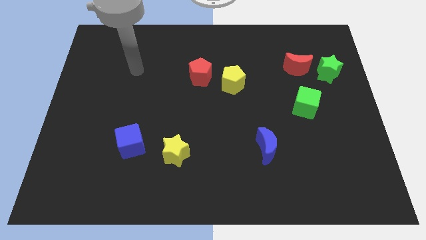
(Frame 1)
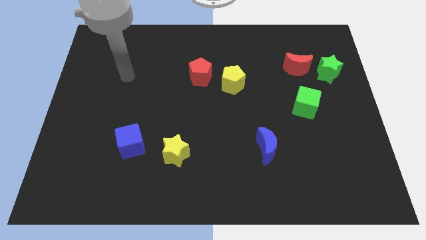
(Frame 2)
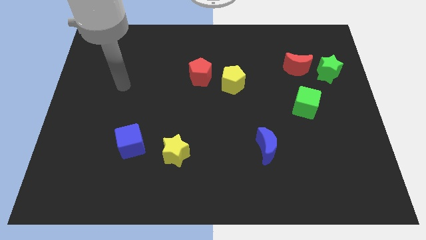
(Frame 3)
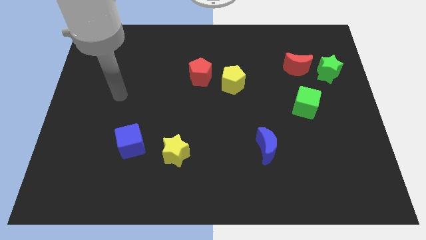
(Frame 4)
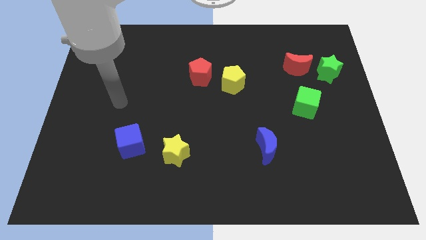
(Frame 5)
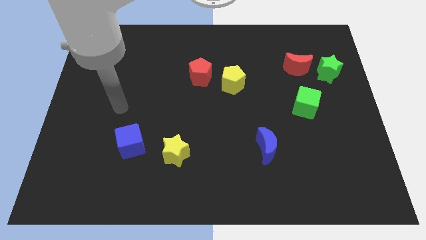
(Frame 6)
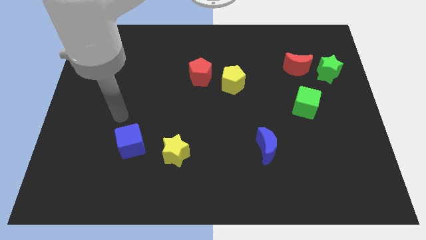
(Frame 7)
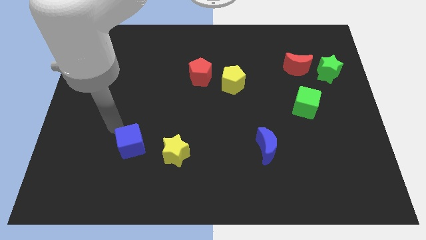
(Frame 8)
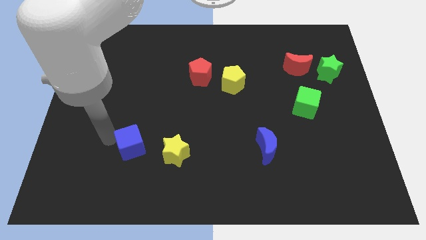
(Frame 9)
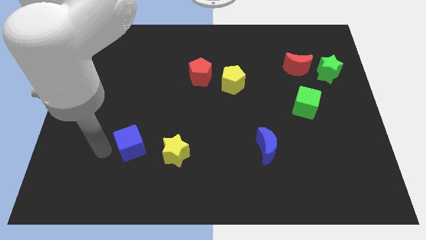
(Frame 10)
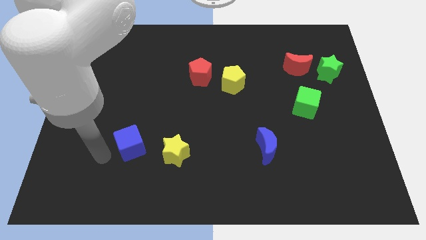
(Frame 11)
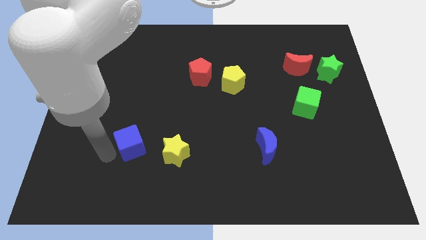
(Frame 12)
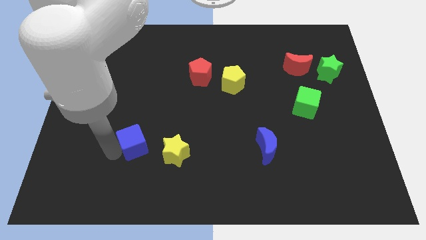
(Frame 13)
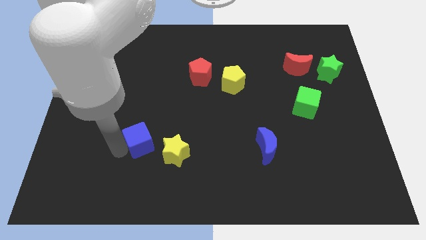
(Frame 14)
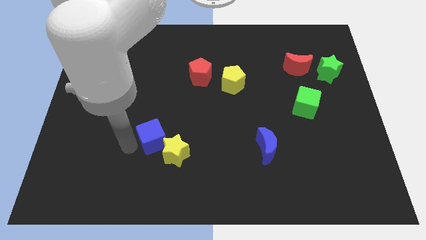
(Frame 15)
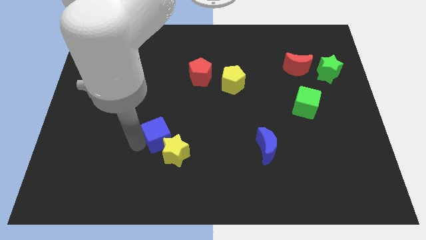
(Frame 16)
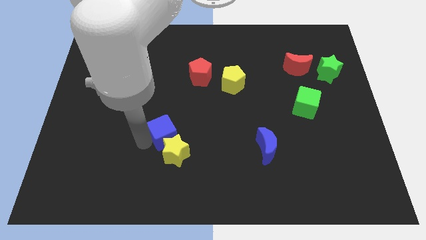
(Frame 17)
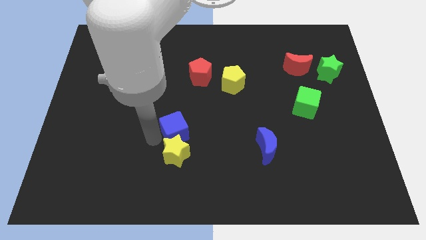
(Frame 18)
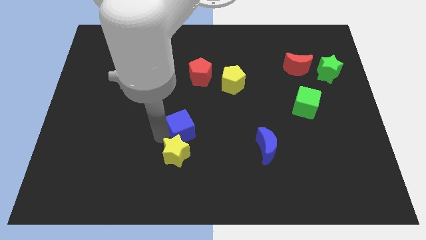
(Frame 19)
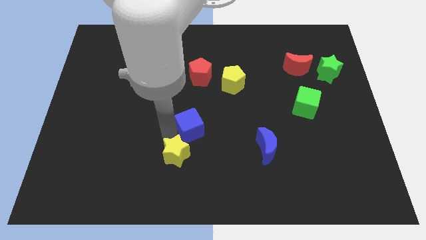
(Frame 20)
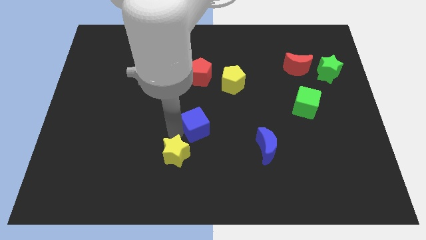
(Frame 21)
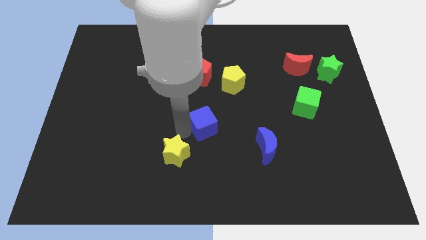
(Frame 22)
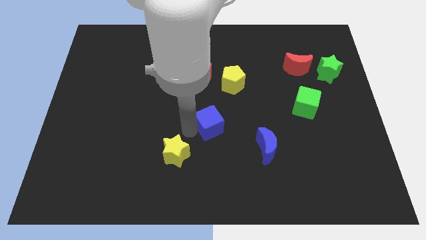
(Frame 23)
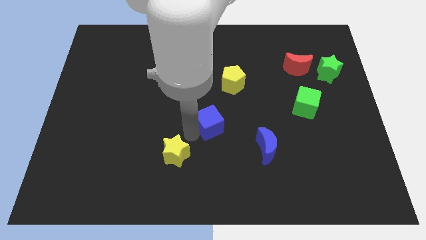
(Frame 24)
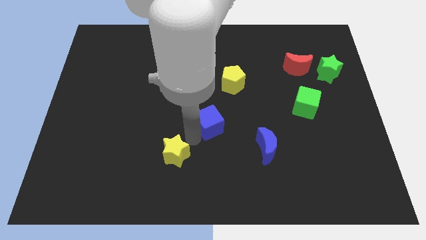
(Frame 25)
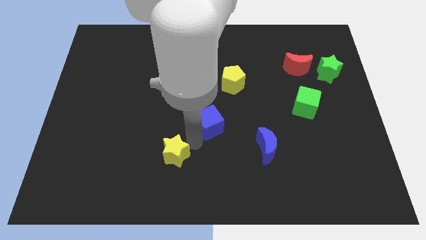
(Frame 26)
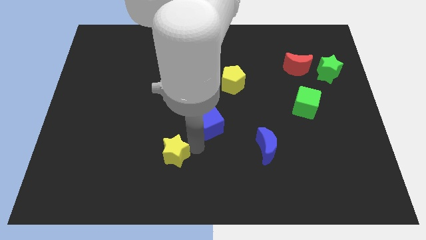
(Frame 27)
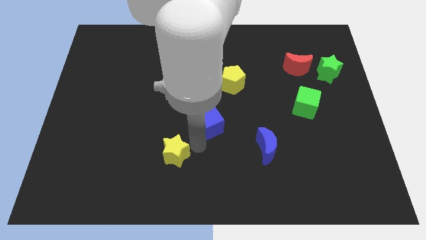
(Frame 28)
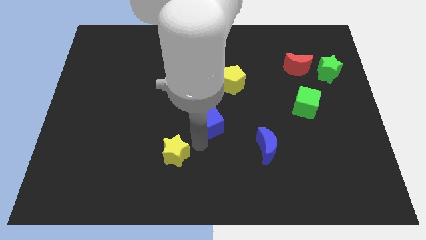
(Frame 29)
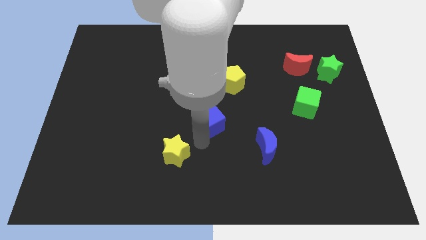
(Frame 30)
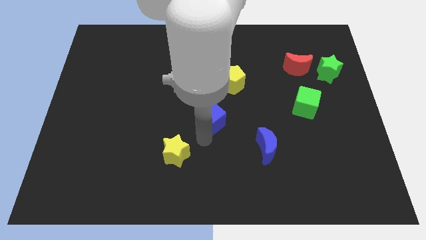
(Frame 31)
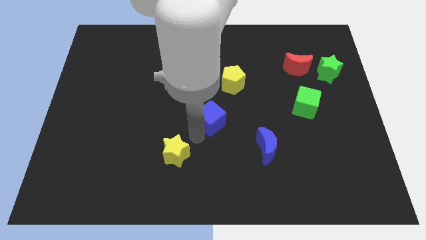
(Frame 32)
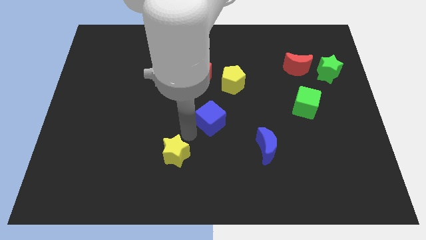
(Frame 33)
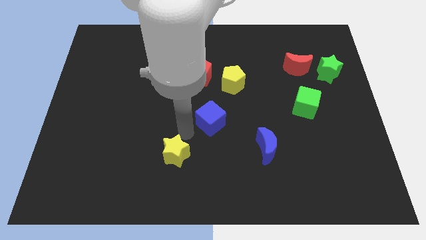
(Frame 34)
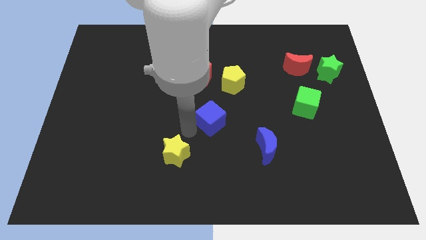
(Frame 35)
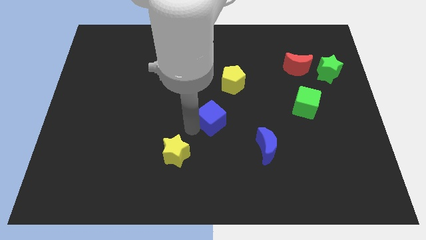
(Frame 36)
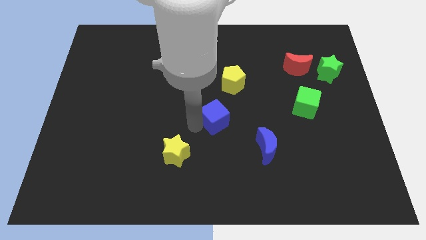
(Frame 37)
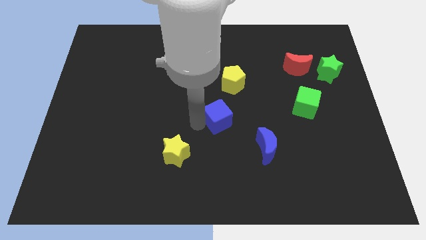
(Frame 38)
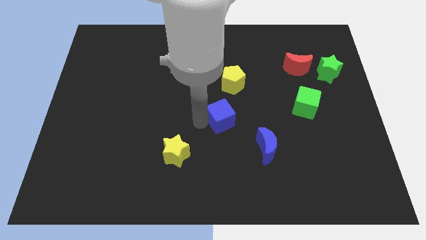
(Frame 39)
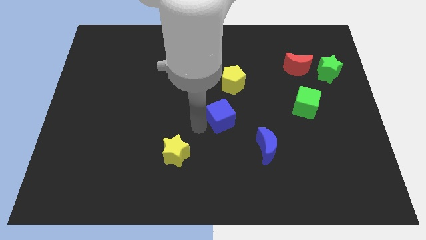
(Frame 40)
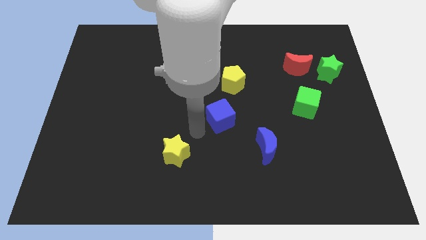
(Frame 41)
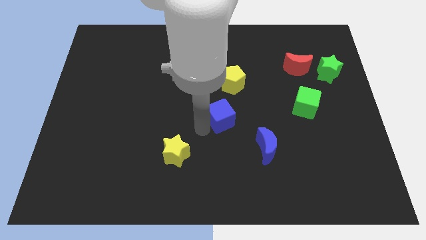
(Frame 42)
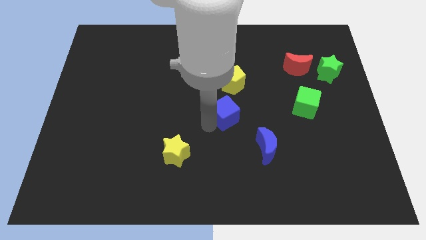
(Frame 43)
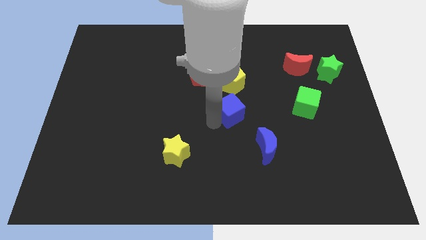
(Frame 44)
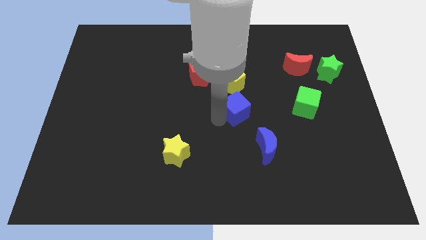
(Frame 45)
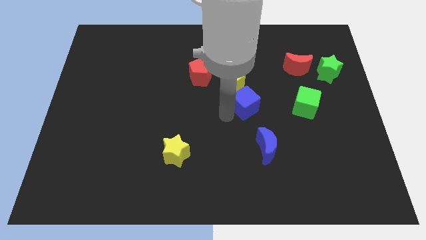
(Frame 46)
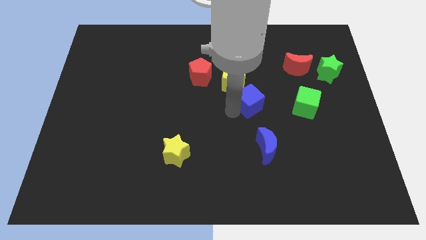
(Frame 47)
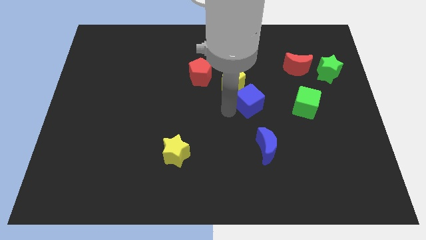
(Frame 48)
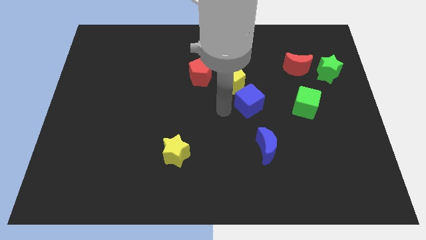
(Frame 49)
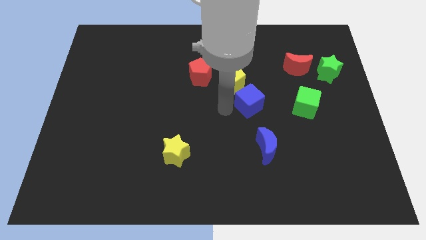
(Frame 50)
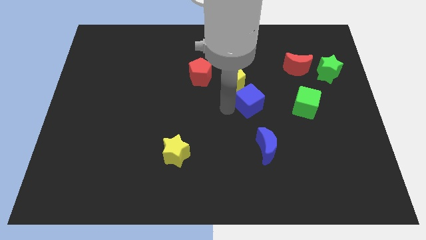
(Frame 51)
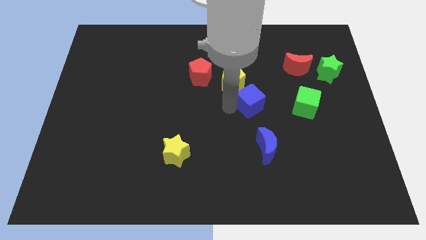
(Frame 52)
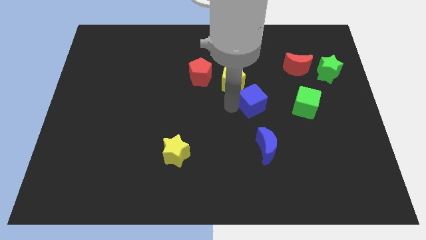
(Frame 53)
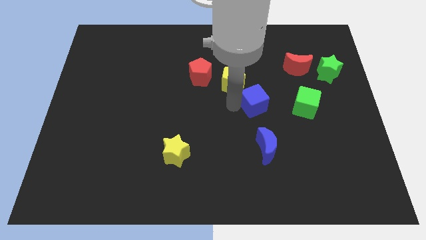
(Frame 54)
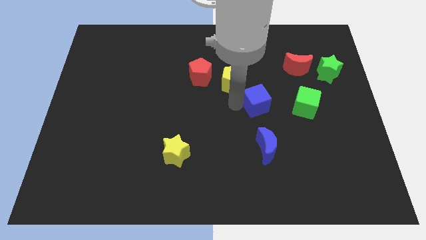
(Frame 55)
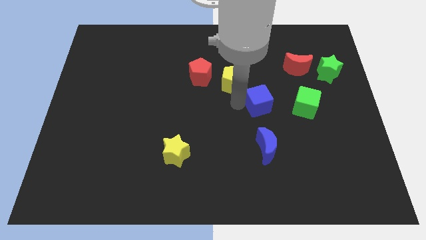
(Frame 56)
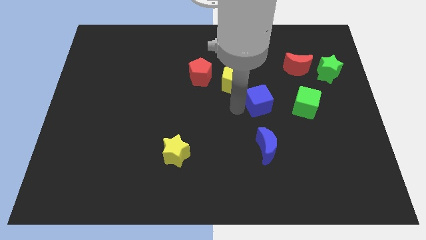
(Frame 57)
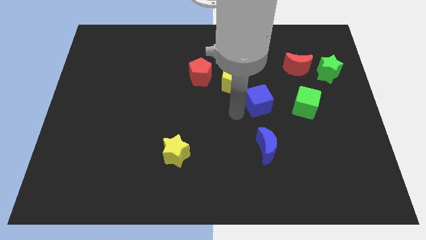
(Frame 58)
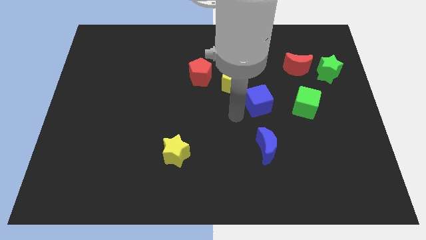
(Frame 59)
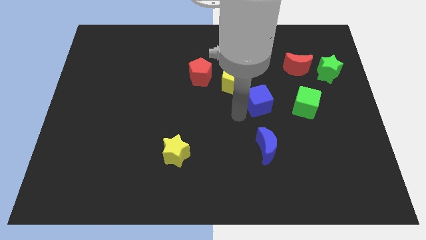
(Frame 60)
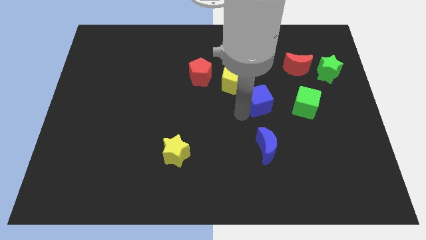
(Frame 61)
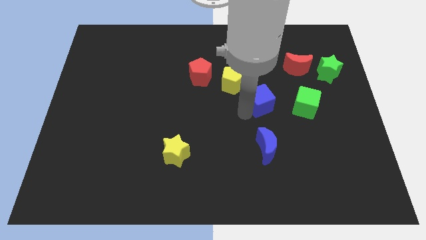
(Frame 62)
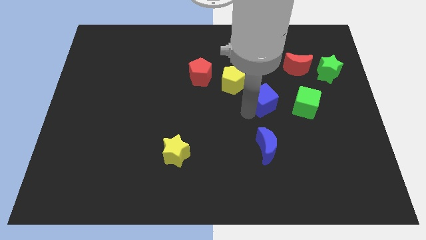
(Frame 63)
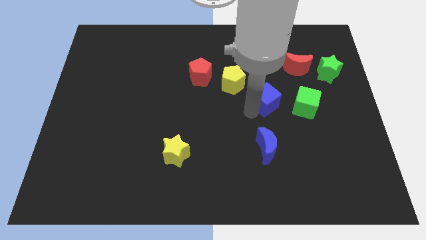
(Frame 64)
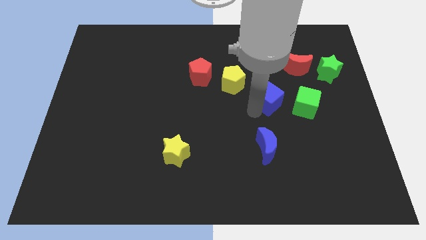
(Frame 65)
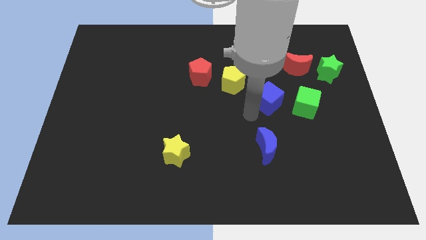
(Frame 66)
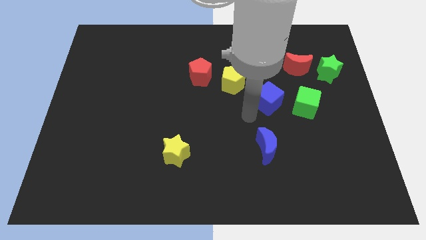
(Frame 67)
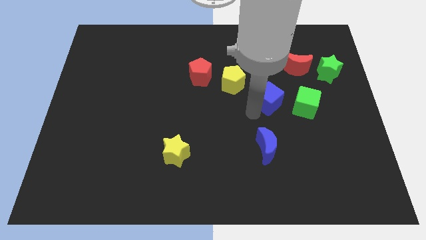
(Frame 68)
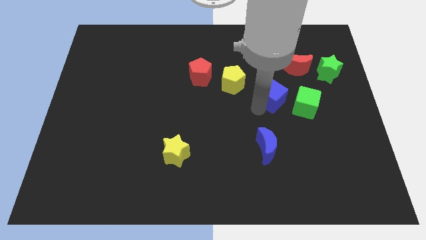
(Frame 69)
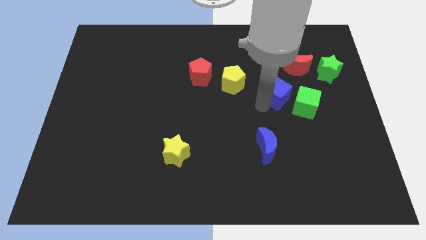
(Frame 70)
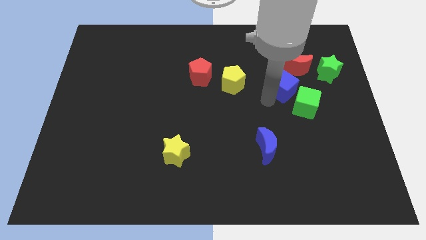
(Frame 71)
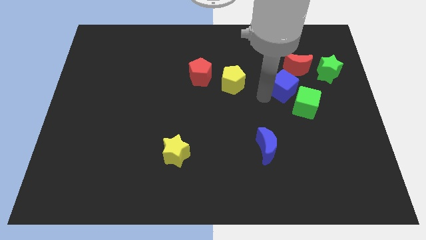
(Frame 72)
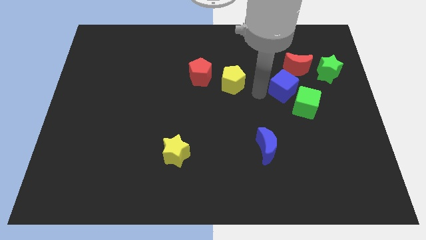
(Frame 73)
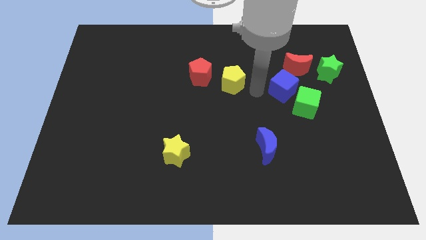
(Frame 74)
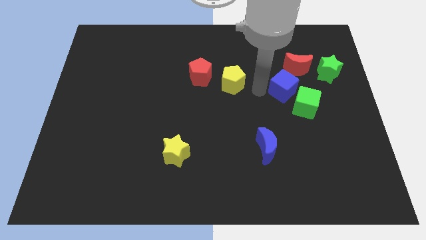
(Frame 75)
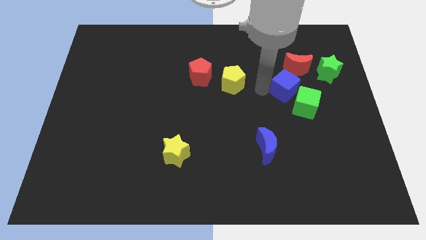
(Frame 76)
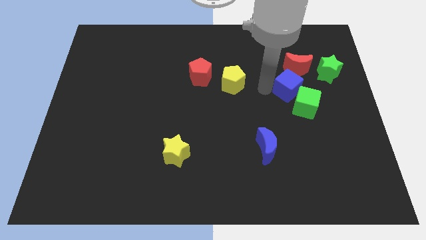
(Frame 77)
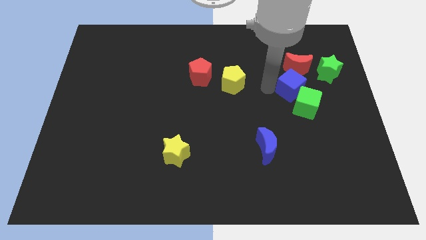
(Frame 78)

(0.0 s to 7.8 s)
put the blue cube to the bottom left side of the green star
